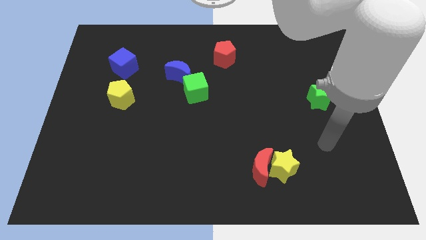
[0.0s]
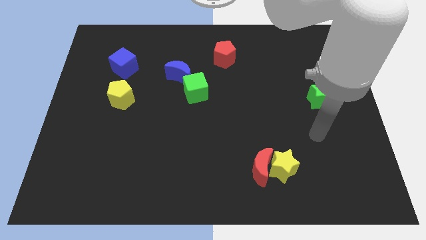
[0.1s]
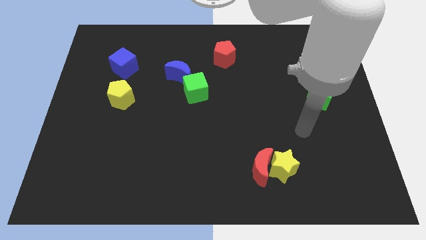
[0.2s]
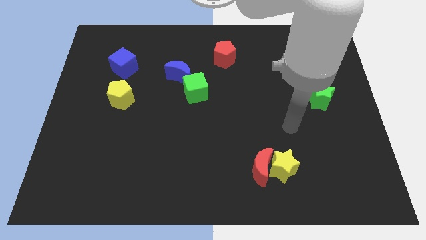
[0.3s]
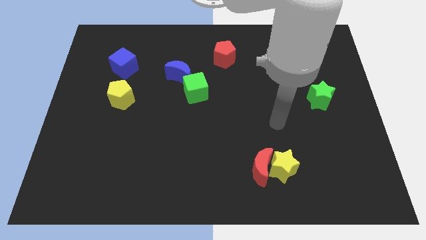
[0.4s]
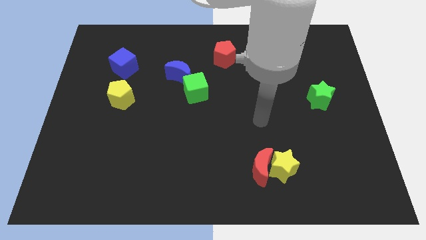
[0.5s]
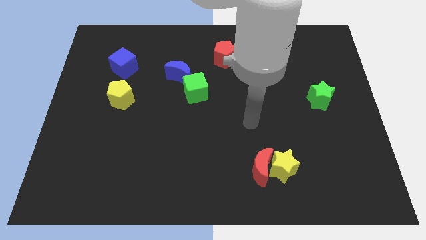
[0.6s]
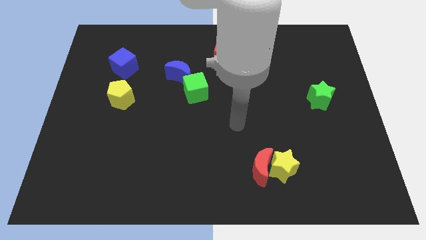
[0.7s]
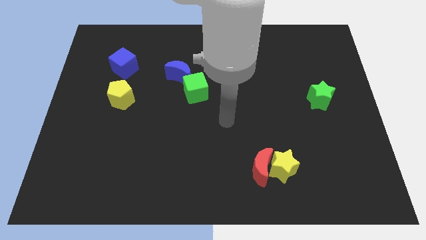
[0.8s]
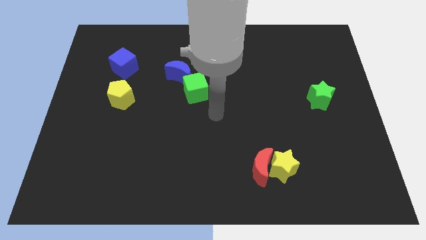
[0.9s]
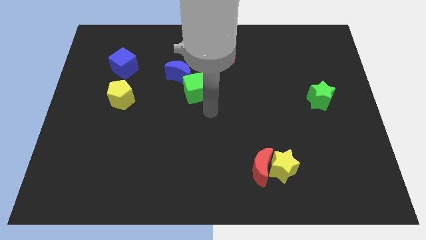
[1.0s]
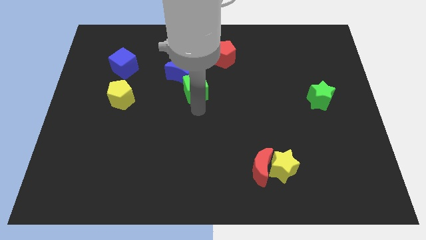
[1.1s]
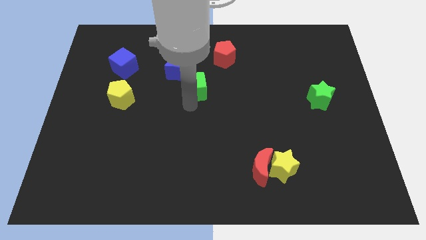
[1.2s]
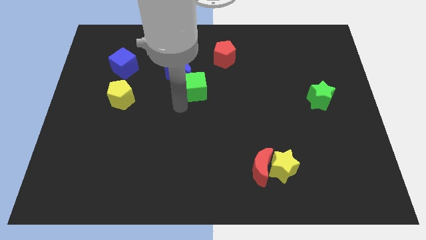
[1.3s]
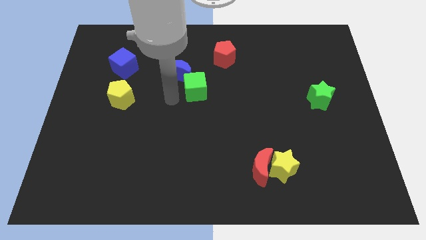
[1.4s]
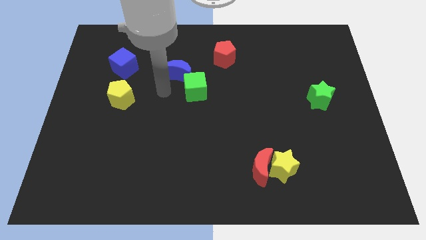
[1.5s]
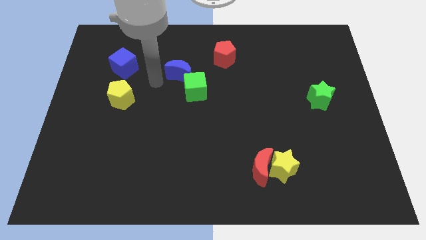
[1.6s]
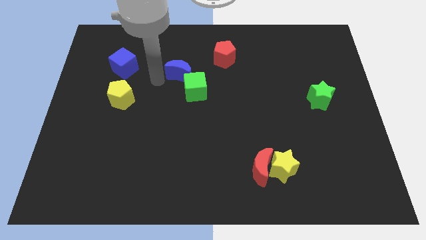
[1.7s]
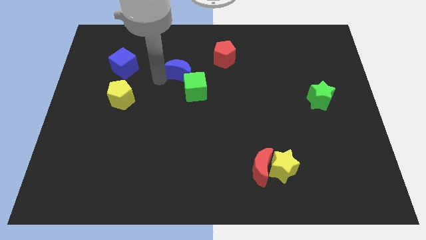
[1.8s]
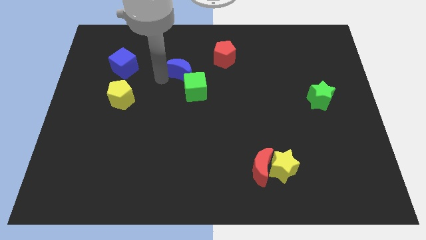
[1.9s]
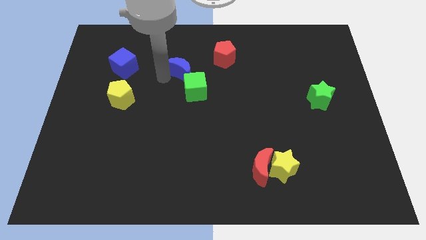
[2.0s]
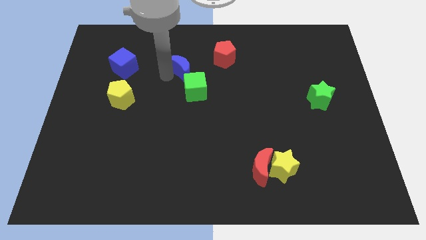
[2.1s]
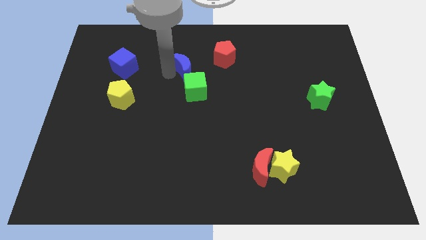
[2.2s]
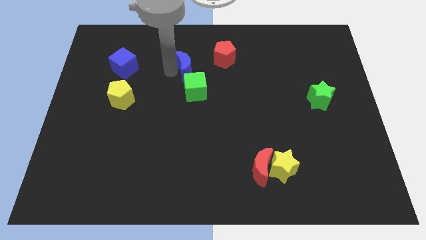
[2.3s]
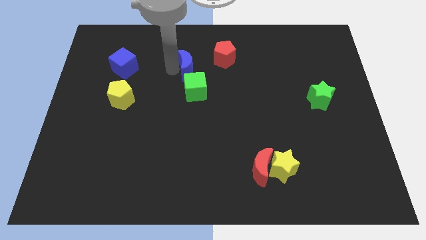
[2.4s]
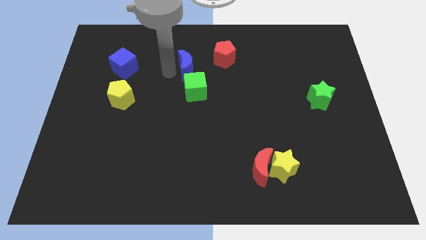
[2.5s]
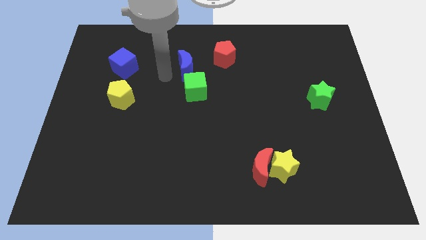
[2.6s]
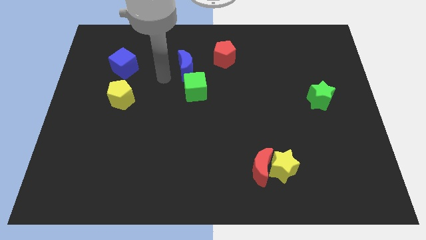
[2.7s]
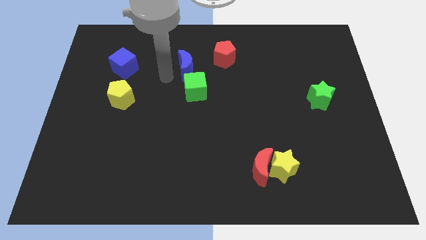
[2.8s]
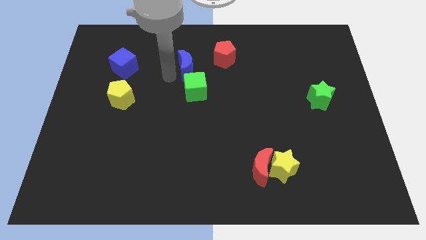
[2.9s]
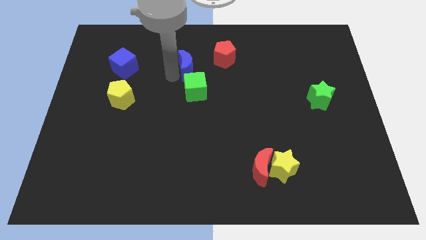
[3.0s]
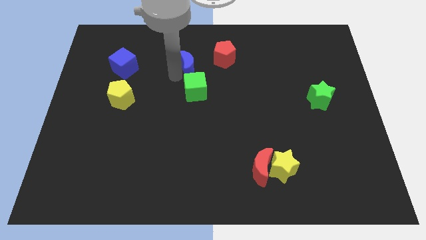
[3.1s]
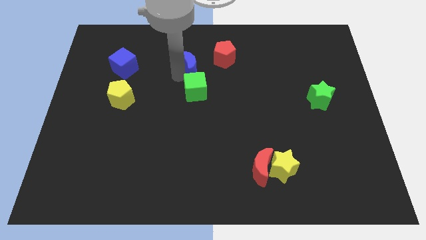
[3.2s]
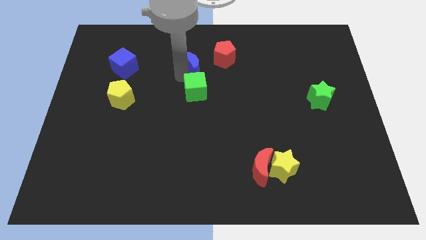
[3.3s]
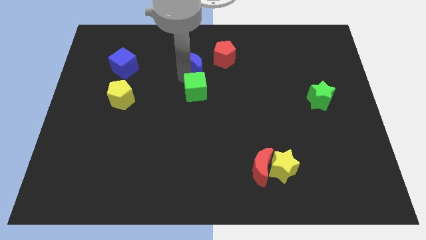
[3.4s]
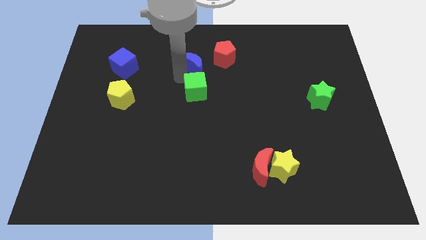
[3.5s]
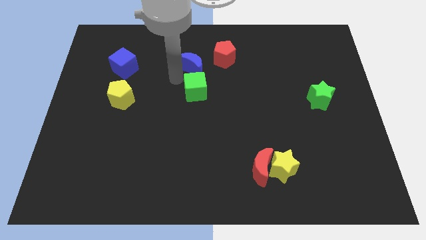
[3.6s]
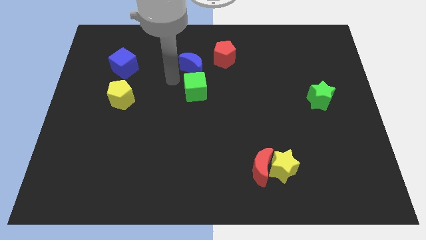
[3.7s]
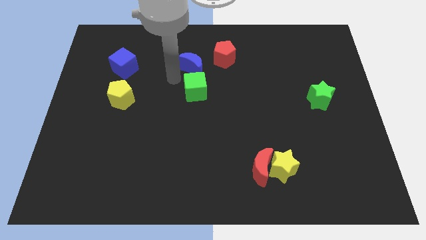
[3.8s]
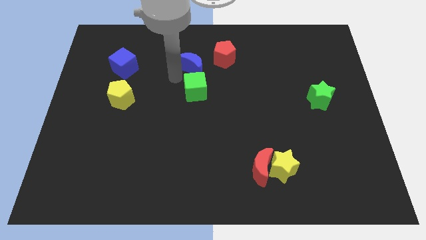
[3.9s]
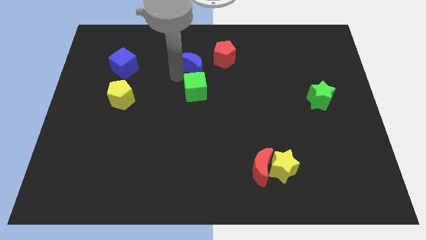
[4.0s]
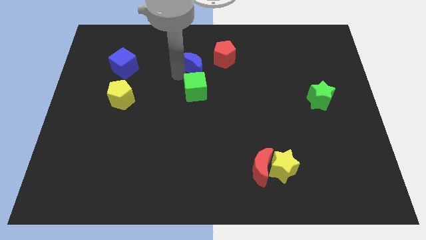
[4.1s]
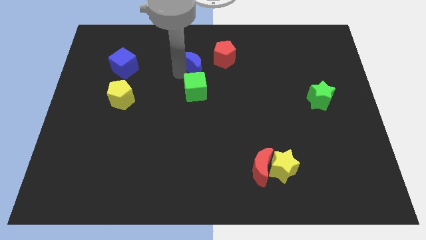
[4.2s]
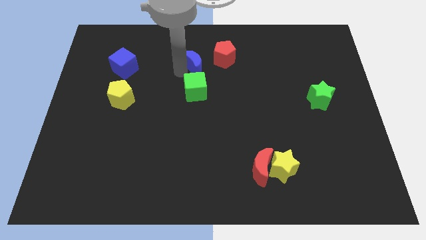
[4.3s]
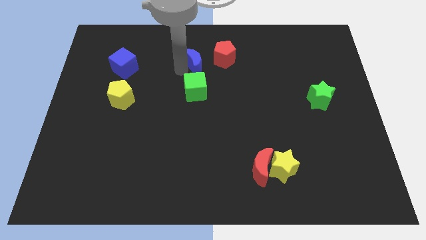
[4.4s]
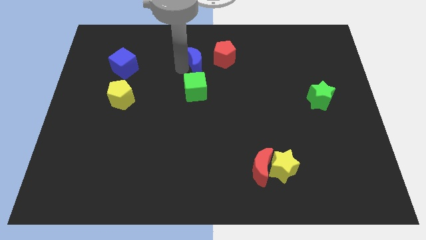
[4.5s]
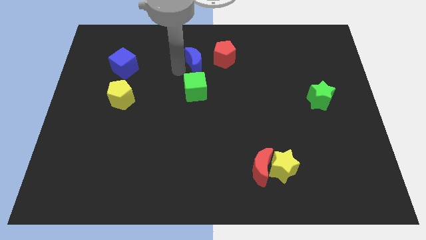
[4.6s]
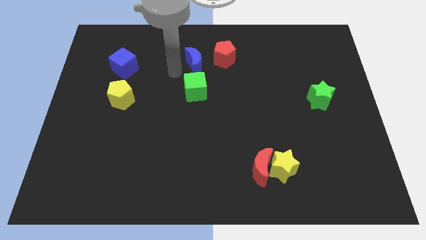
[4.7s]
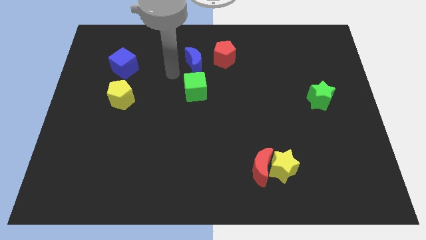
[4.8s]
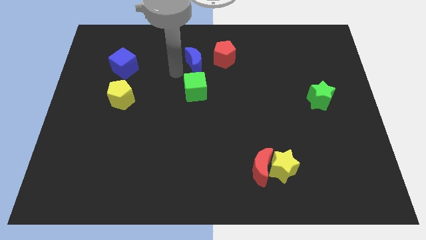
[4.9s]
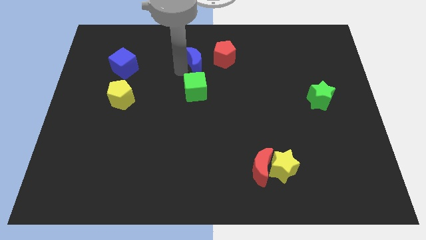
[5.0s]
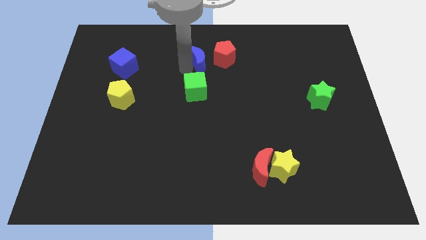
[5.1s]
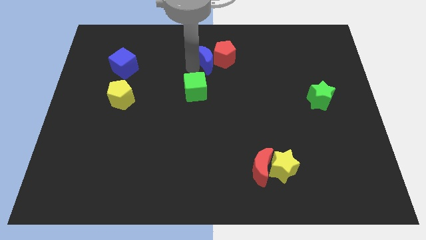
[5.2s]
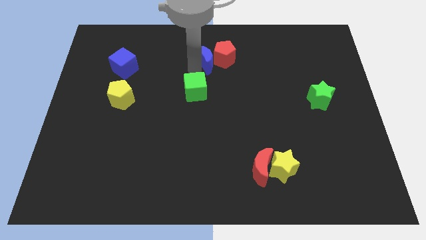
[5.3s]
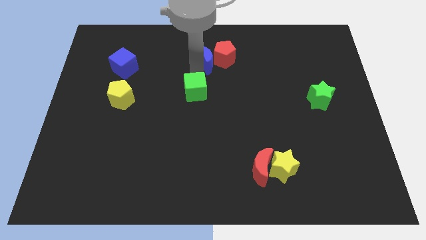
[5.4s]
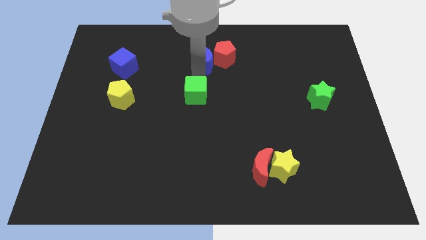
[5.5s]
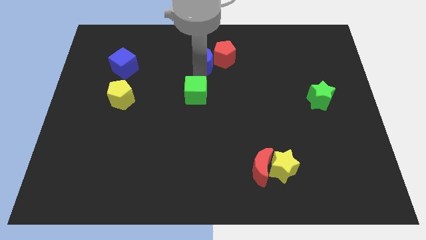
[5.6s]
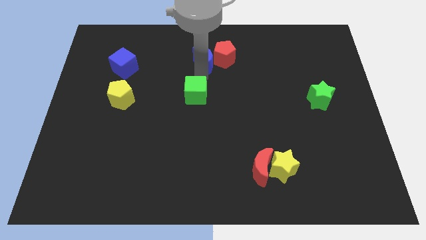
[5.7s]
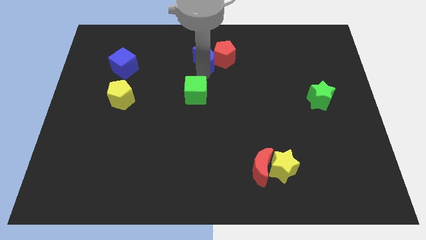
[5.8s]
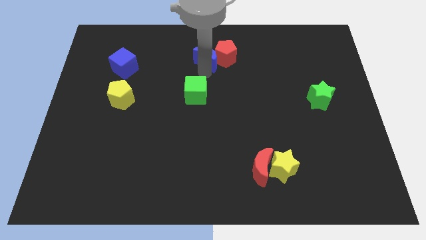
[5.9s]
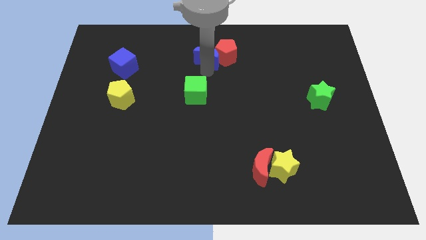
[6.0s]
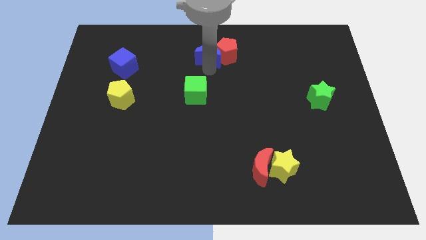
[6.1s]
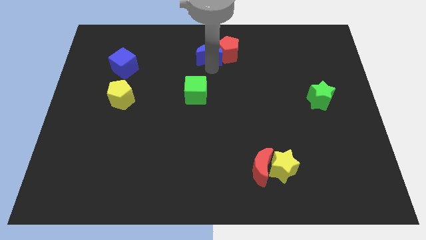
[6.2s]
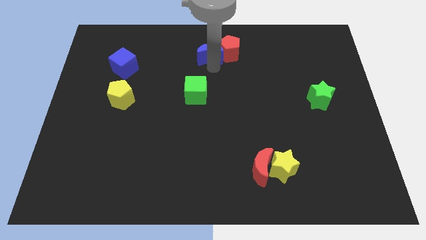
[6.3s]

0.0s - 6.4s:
move the blue moon to the towards your base
